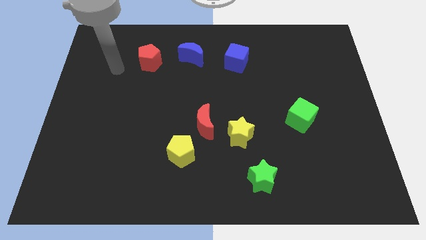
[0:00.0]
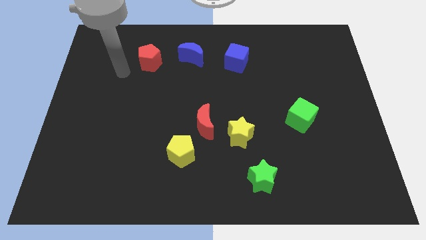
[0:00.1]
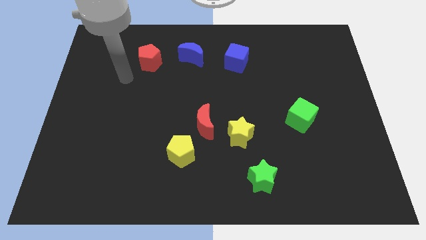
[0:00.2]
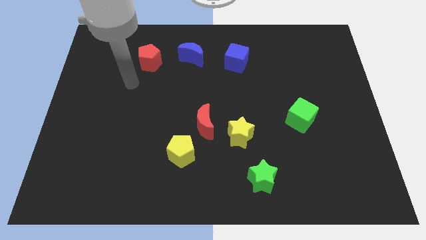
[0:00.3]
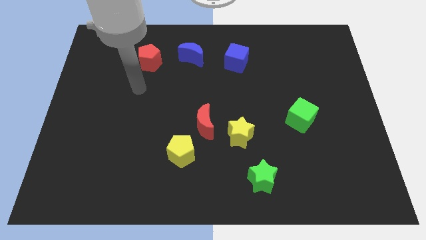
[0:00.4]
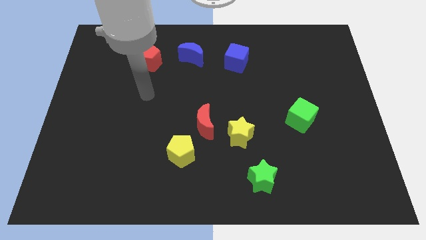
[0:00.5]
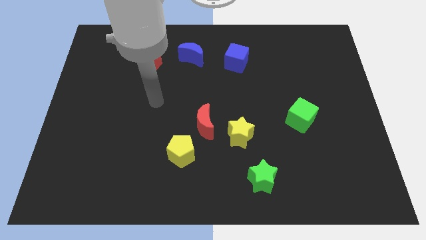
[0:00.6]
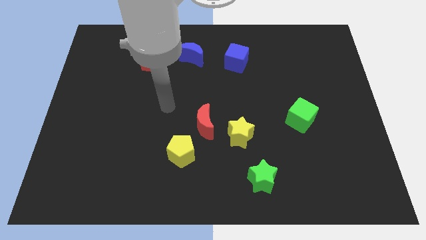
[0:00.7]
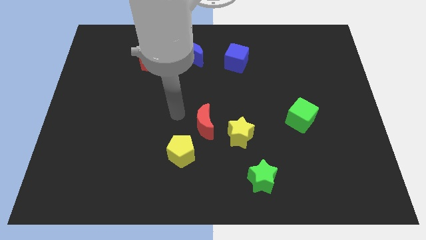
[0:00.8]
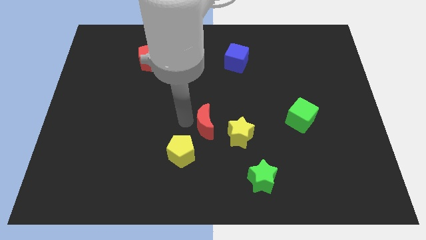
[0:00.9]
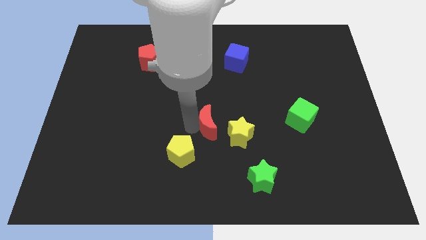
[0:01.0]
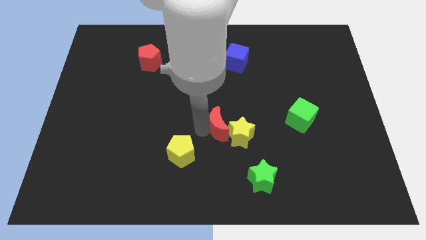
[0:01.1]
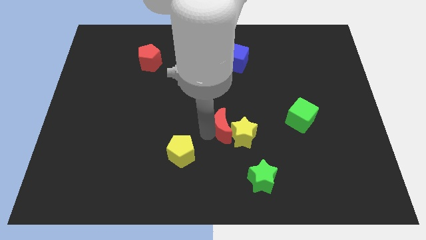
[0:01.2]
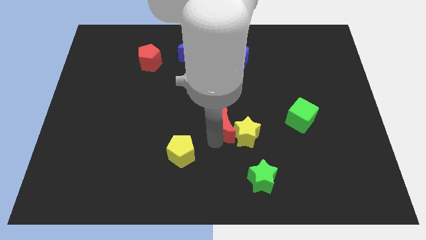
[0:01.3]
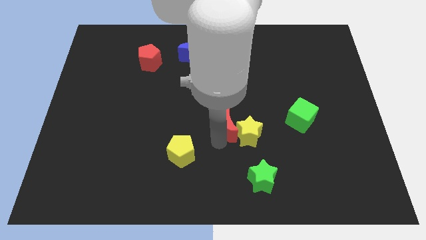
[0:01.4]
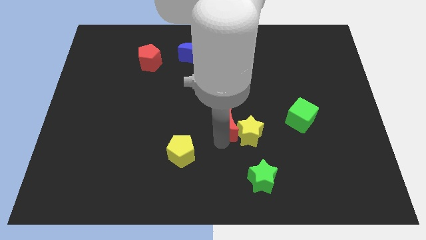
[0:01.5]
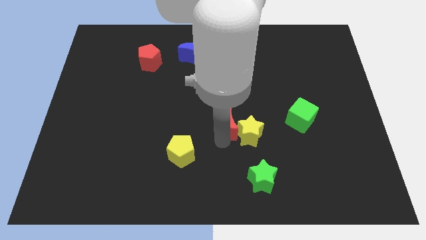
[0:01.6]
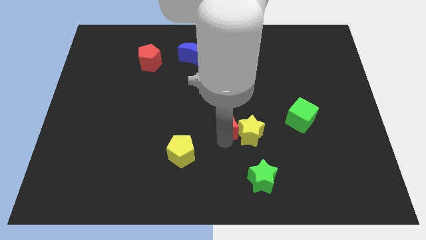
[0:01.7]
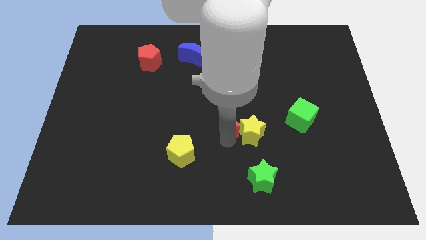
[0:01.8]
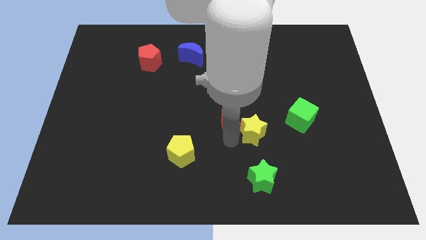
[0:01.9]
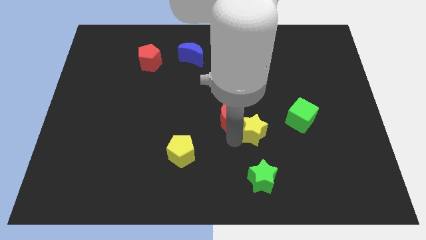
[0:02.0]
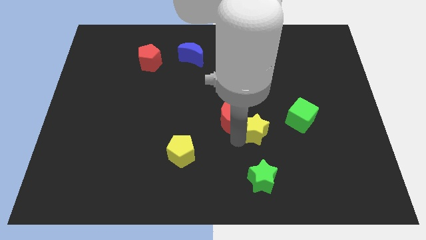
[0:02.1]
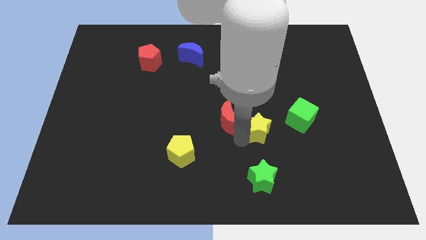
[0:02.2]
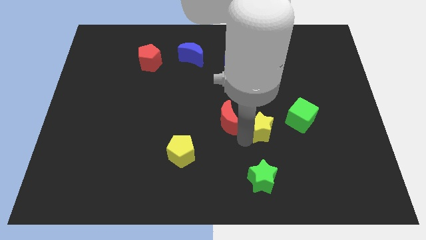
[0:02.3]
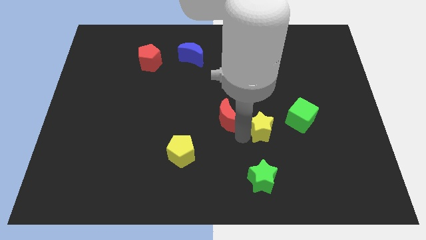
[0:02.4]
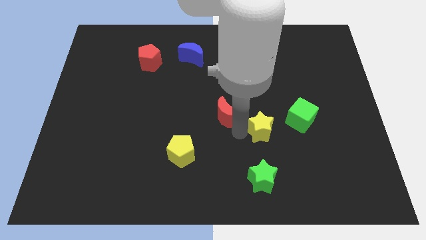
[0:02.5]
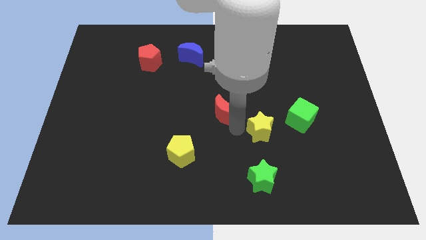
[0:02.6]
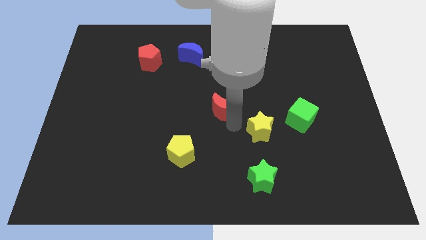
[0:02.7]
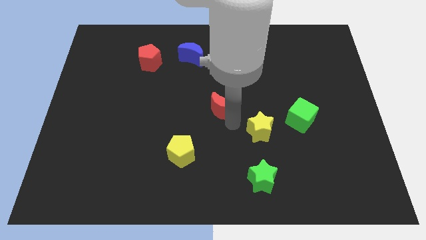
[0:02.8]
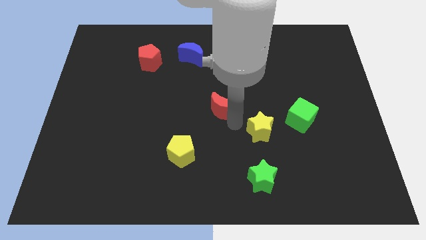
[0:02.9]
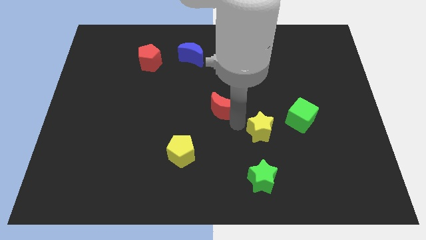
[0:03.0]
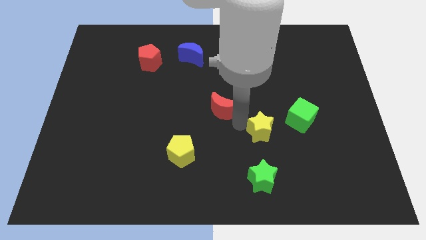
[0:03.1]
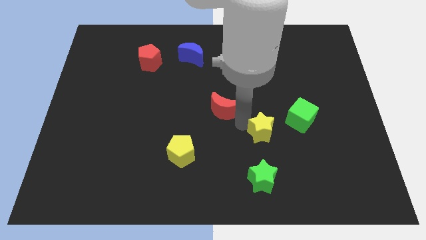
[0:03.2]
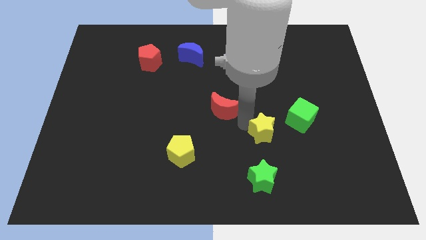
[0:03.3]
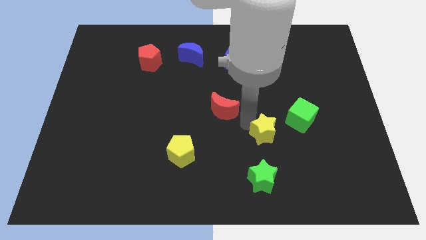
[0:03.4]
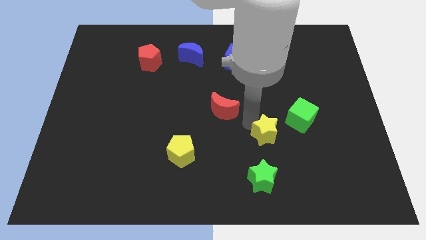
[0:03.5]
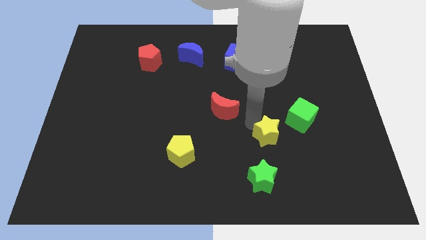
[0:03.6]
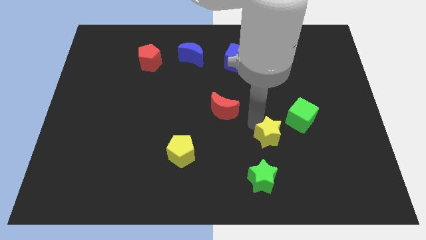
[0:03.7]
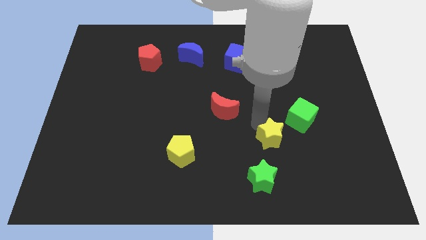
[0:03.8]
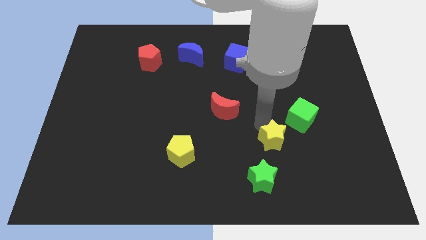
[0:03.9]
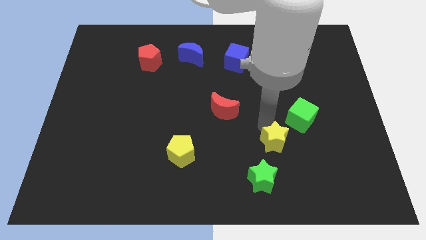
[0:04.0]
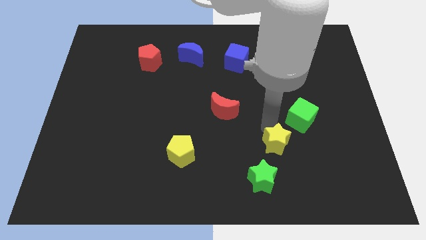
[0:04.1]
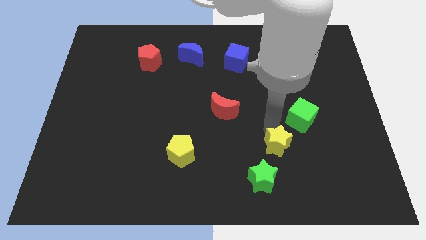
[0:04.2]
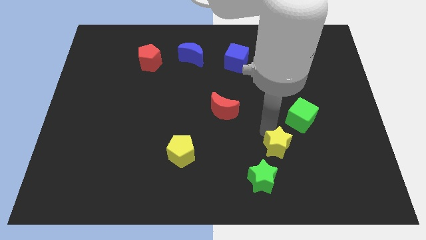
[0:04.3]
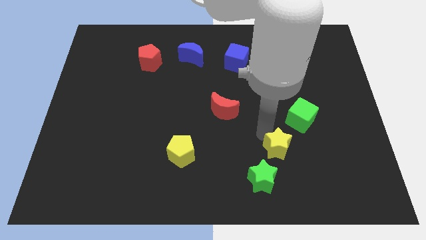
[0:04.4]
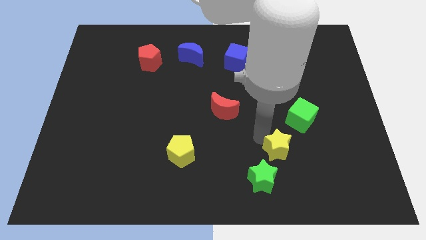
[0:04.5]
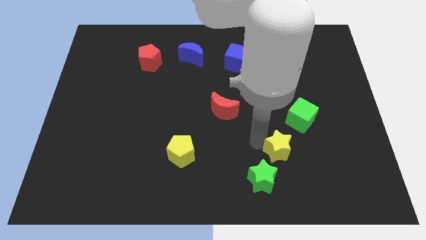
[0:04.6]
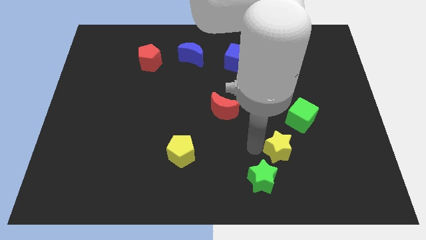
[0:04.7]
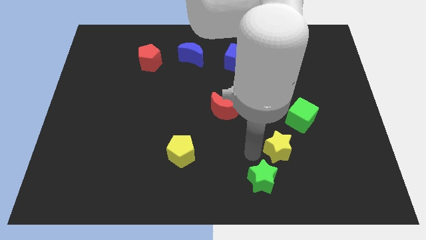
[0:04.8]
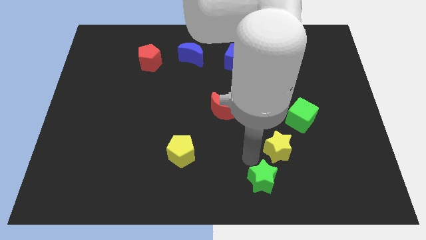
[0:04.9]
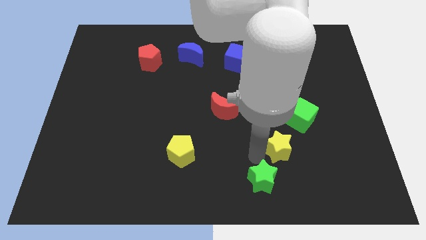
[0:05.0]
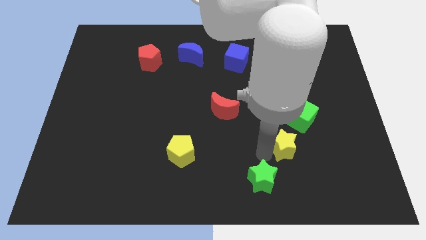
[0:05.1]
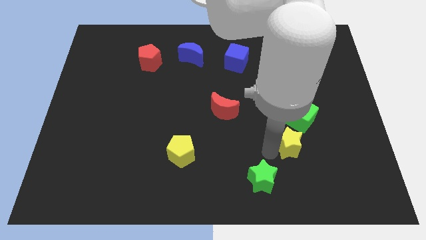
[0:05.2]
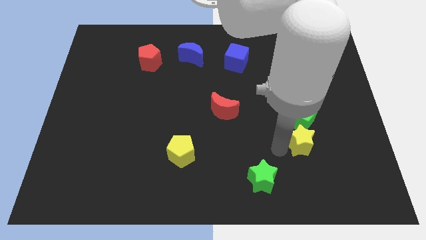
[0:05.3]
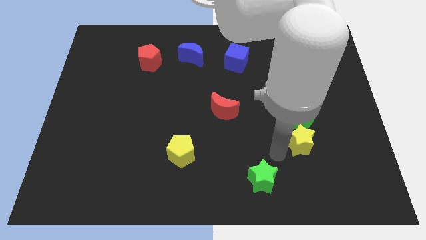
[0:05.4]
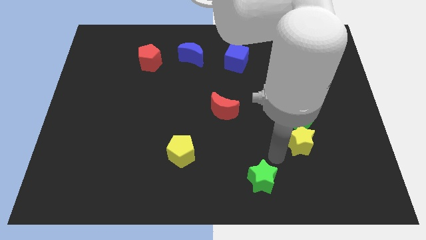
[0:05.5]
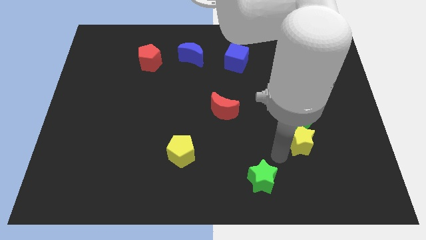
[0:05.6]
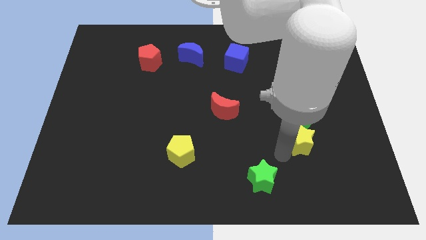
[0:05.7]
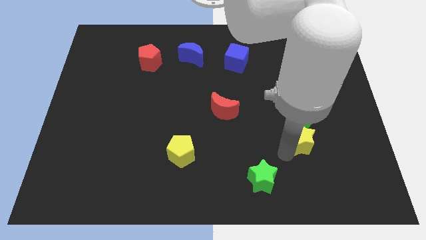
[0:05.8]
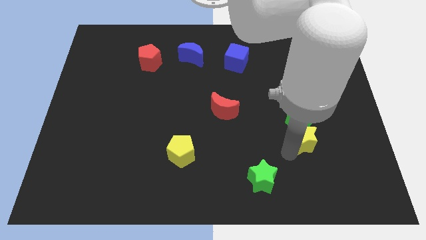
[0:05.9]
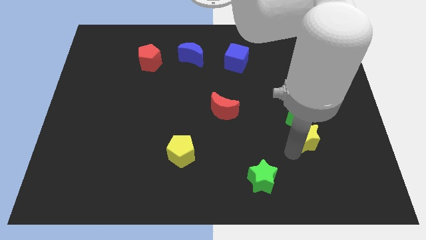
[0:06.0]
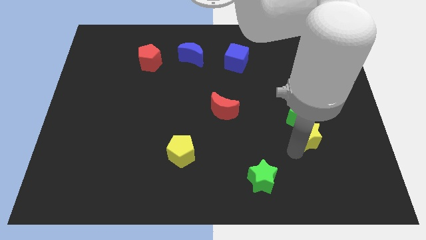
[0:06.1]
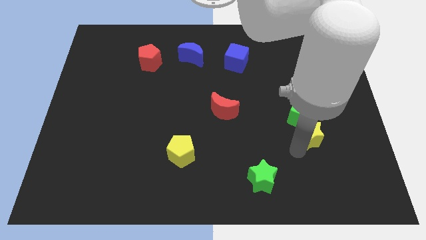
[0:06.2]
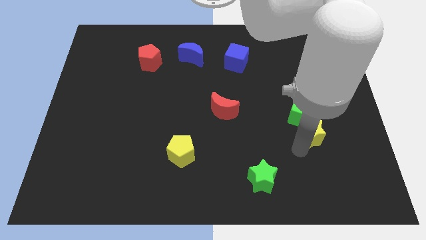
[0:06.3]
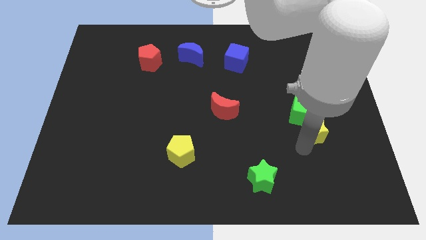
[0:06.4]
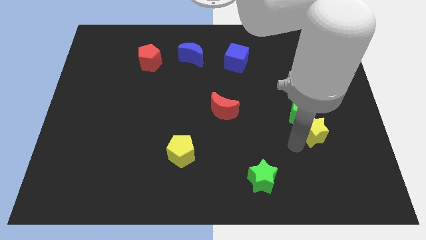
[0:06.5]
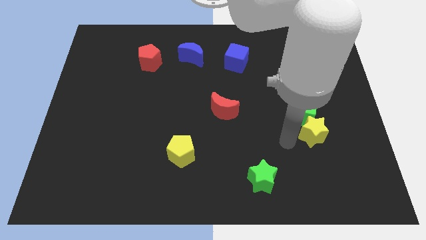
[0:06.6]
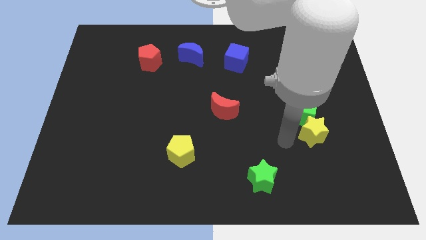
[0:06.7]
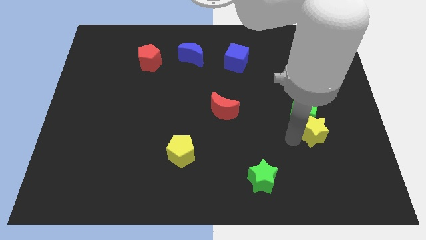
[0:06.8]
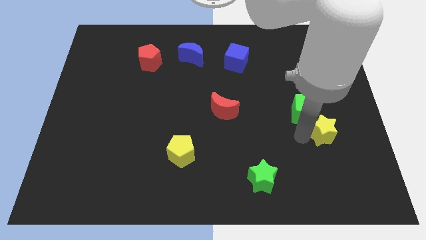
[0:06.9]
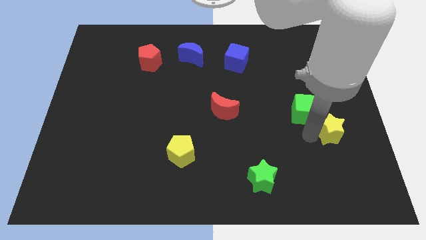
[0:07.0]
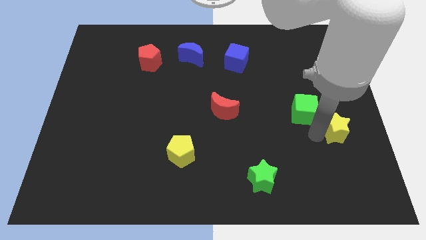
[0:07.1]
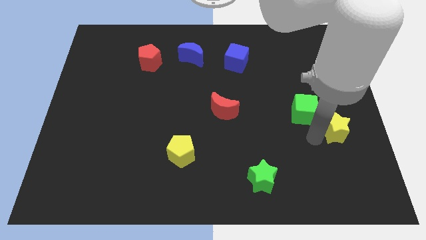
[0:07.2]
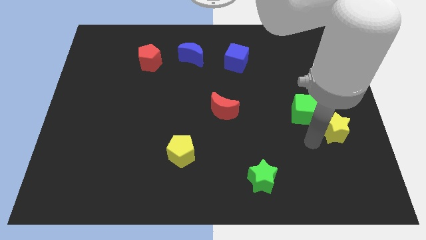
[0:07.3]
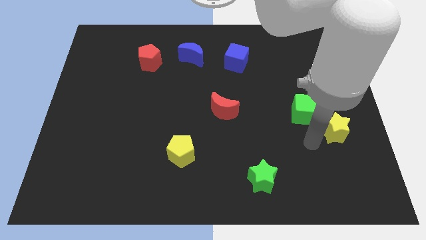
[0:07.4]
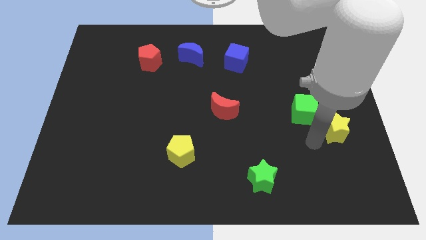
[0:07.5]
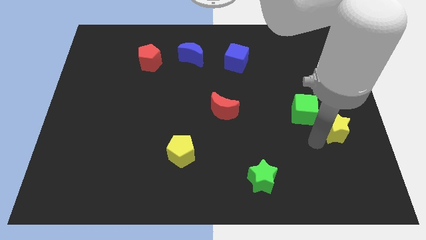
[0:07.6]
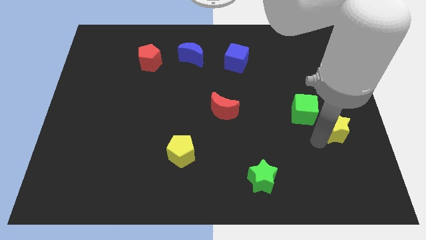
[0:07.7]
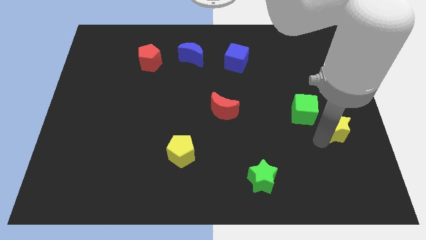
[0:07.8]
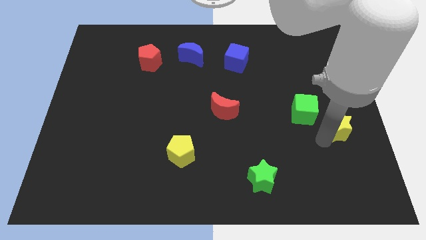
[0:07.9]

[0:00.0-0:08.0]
slide the yellow star to the right side of the board
